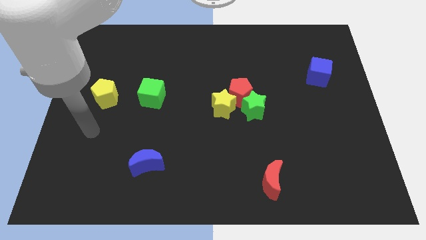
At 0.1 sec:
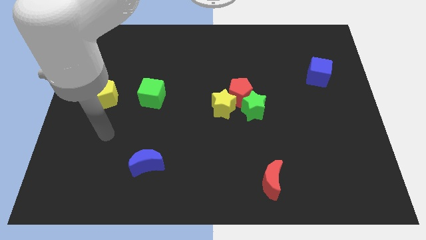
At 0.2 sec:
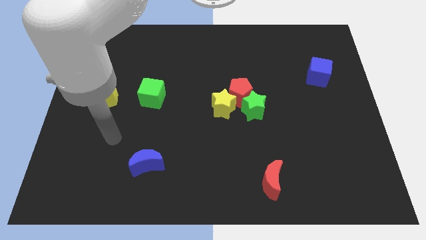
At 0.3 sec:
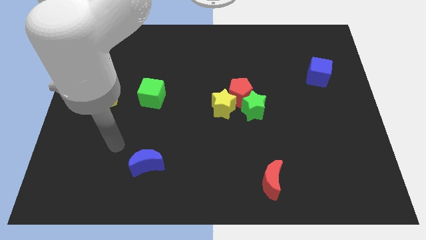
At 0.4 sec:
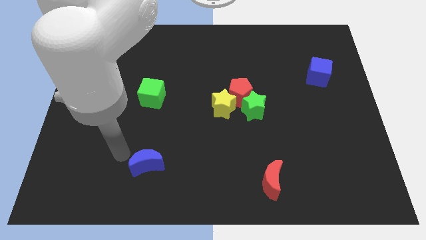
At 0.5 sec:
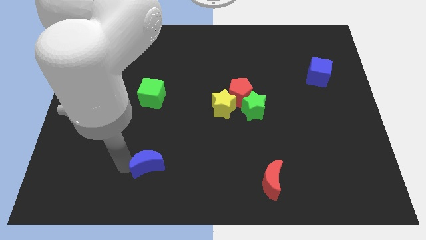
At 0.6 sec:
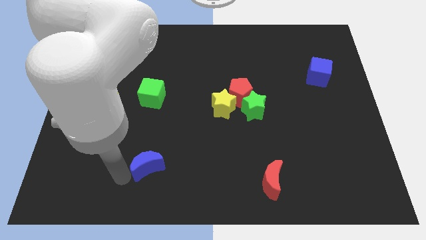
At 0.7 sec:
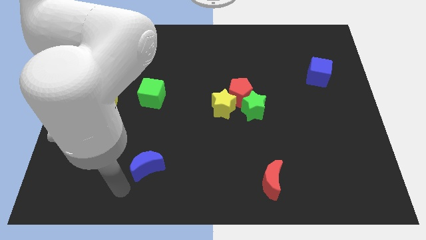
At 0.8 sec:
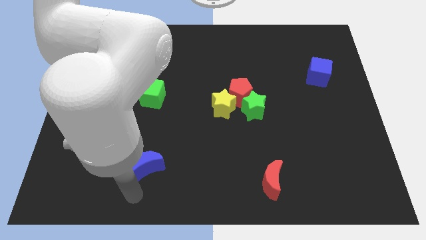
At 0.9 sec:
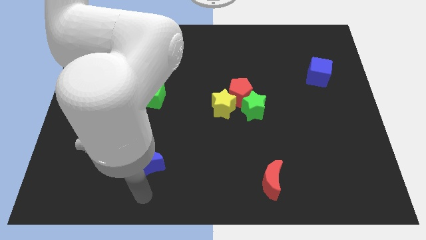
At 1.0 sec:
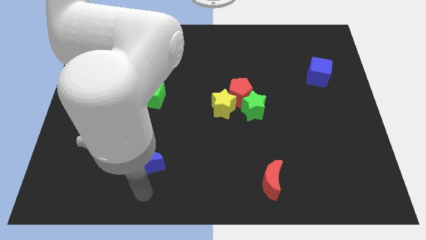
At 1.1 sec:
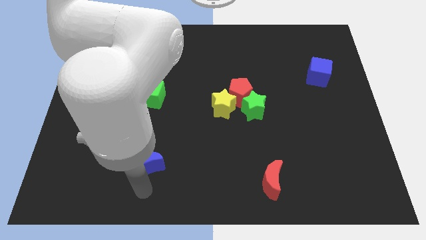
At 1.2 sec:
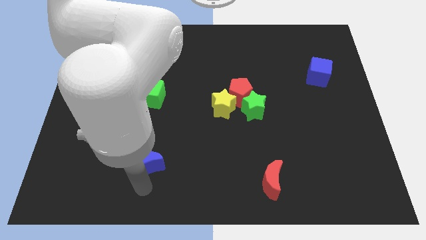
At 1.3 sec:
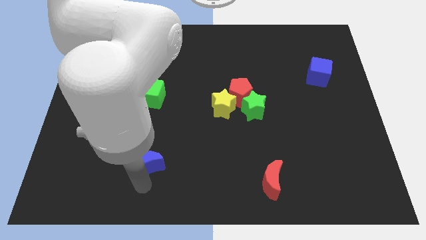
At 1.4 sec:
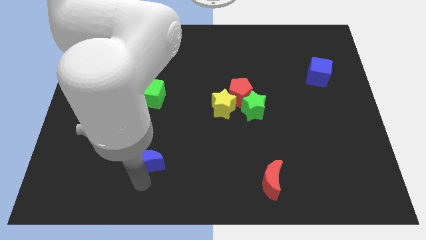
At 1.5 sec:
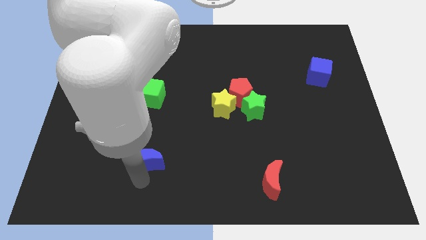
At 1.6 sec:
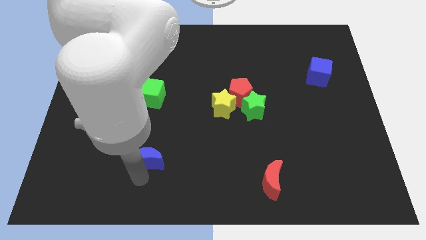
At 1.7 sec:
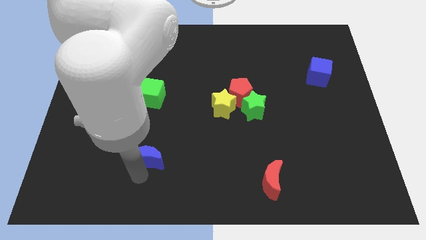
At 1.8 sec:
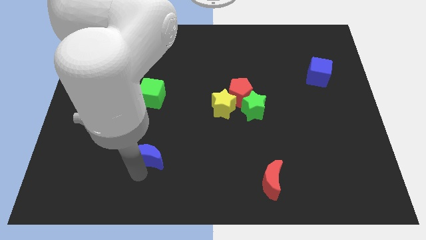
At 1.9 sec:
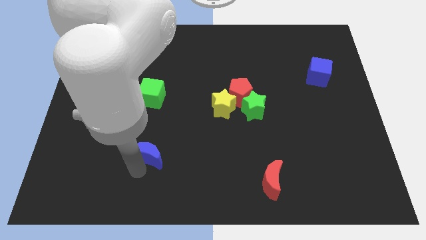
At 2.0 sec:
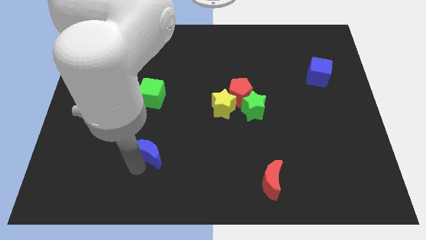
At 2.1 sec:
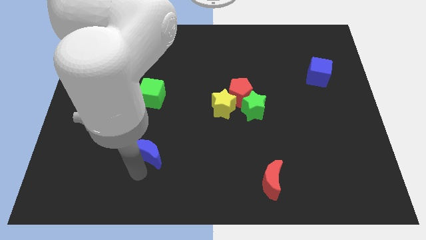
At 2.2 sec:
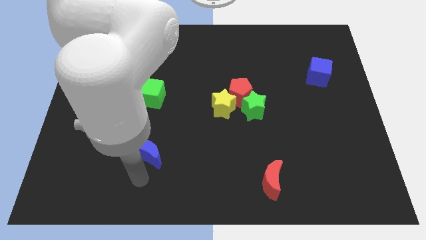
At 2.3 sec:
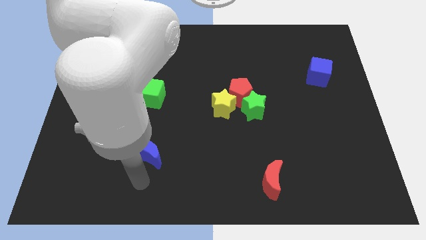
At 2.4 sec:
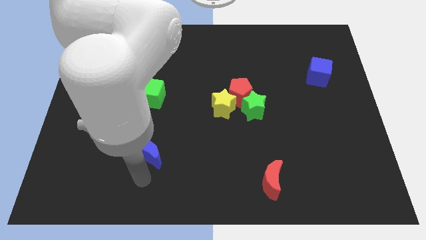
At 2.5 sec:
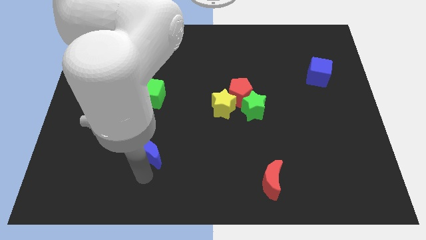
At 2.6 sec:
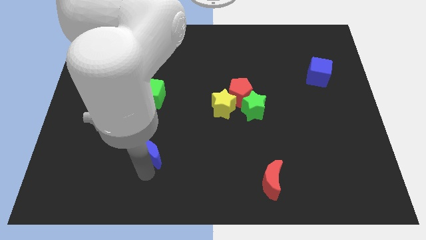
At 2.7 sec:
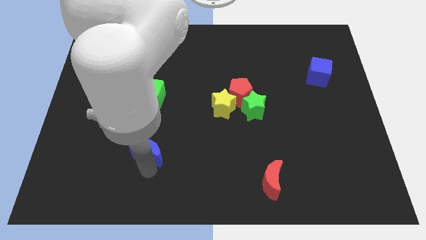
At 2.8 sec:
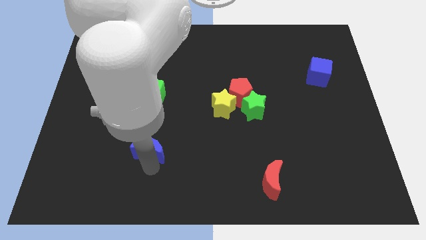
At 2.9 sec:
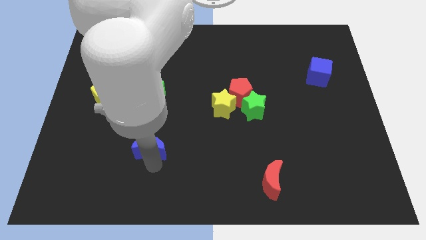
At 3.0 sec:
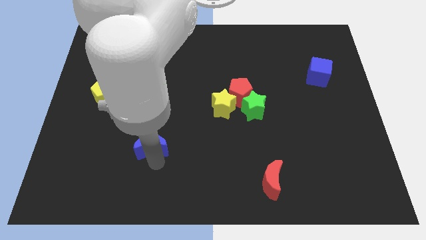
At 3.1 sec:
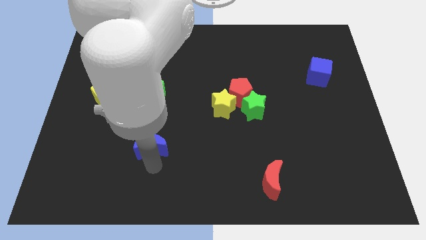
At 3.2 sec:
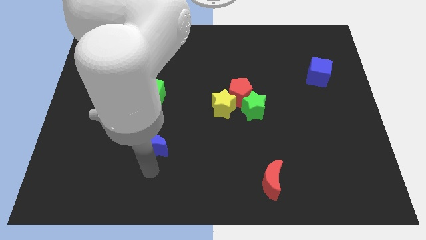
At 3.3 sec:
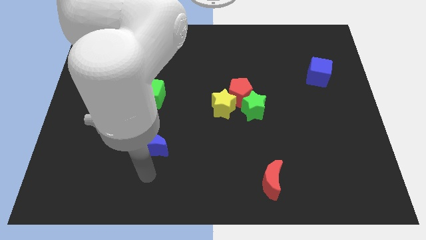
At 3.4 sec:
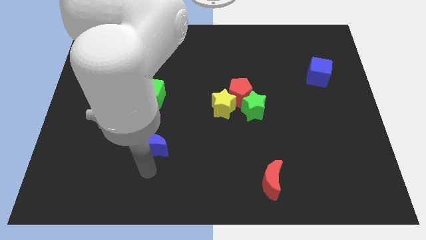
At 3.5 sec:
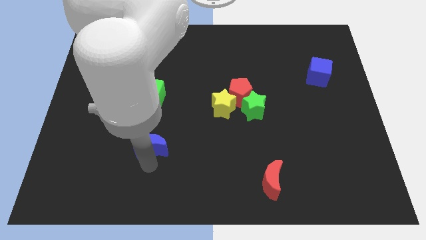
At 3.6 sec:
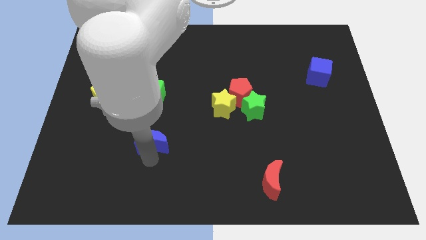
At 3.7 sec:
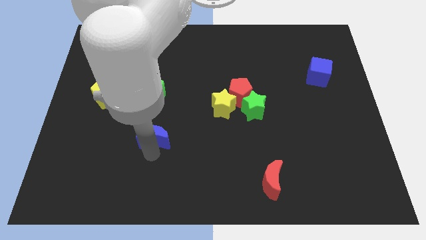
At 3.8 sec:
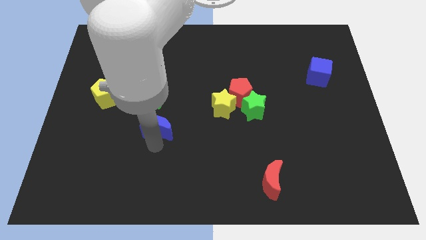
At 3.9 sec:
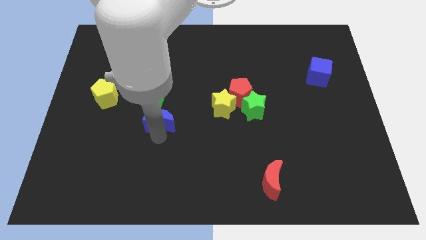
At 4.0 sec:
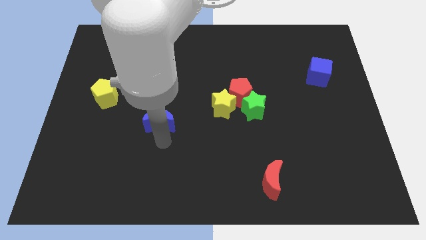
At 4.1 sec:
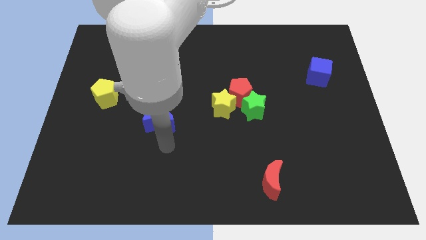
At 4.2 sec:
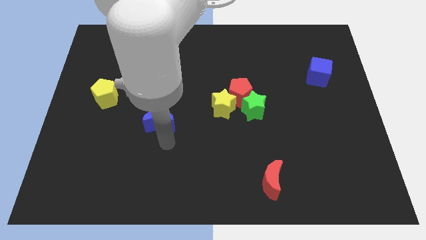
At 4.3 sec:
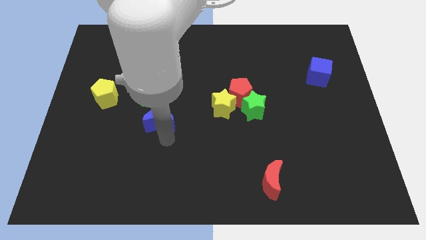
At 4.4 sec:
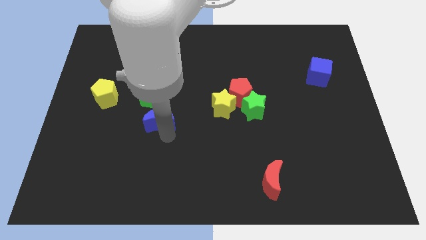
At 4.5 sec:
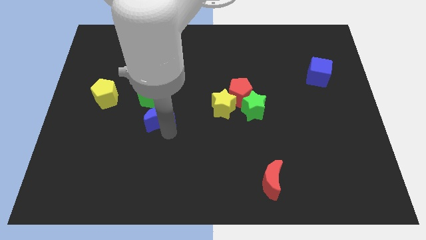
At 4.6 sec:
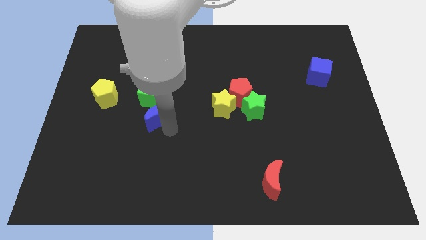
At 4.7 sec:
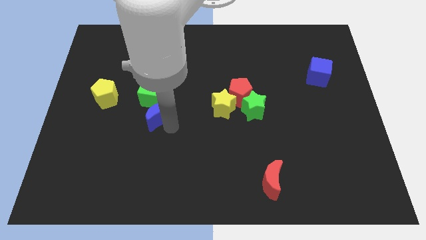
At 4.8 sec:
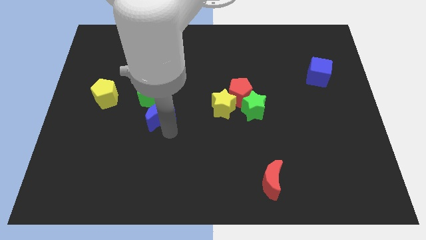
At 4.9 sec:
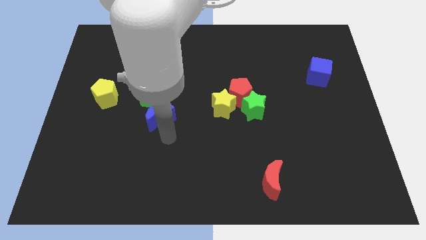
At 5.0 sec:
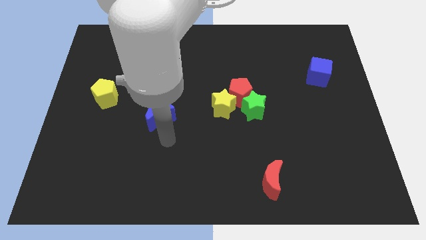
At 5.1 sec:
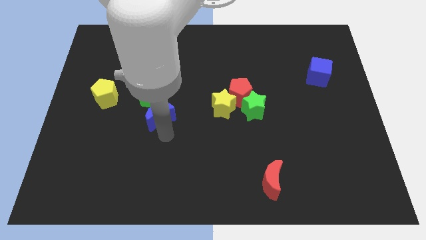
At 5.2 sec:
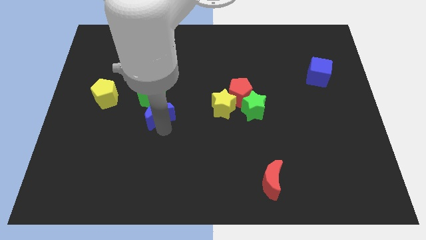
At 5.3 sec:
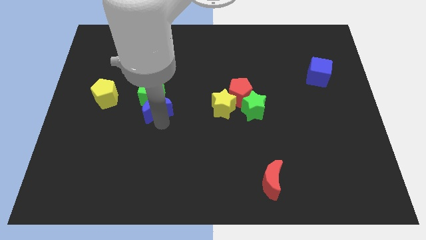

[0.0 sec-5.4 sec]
slide the blue moon close to the green cube
